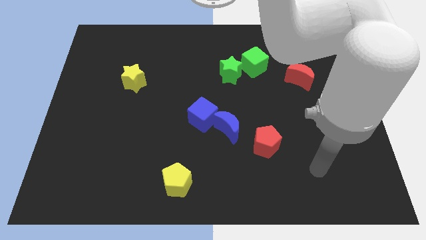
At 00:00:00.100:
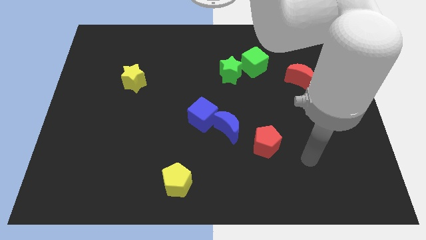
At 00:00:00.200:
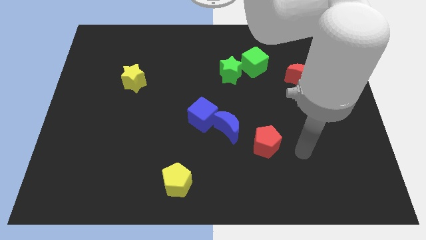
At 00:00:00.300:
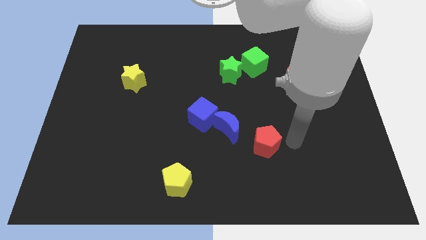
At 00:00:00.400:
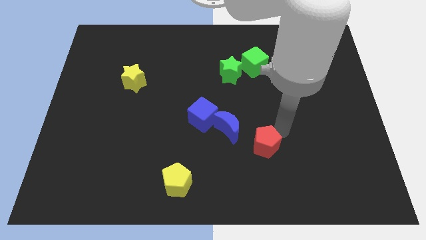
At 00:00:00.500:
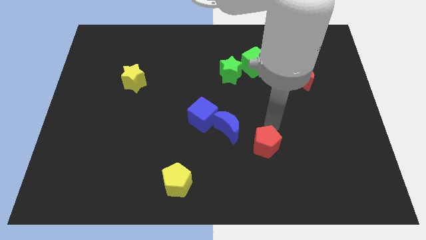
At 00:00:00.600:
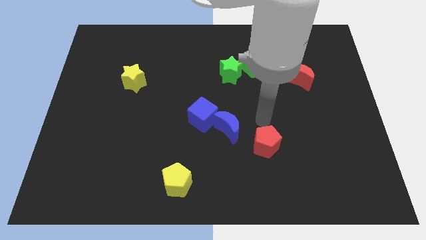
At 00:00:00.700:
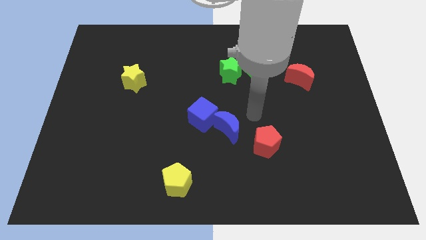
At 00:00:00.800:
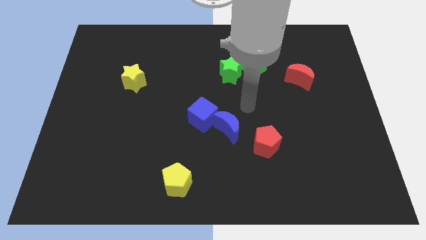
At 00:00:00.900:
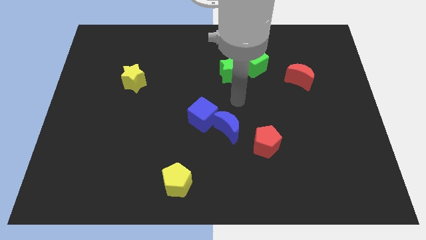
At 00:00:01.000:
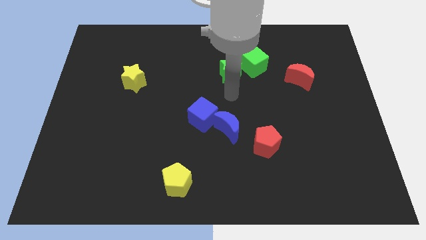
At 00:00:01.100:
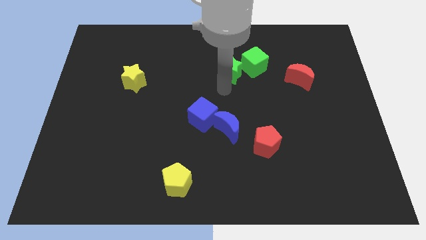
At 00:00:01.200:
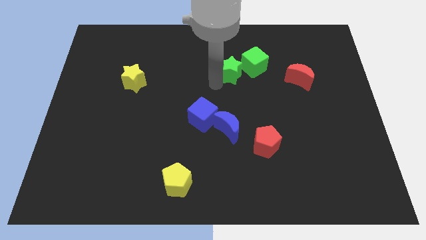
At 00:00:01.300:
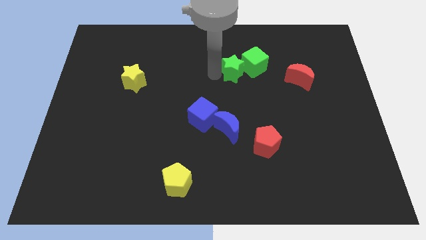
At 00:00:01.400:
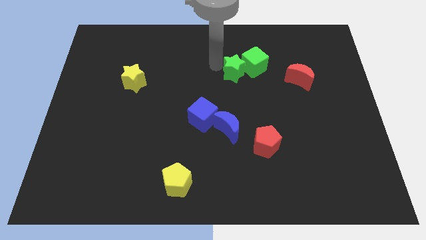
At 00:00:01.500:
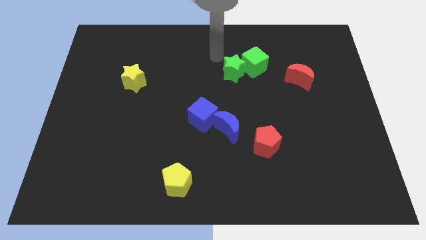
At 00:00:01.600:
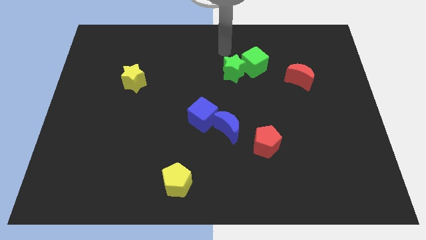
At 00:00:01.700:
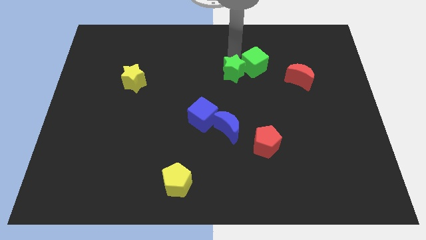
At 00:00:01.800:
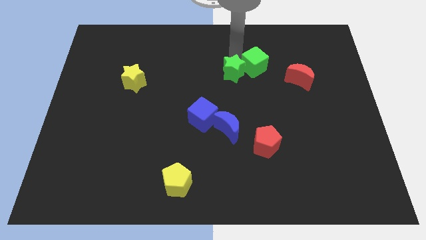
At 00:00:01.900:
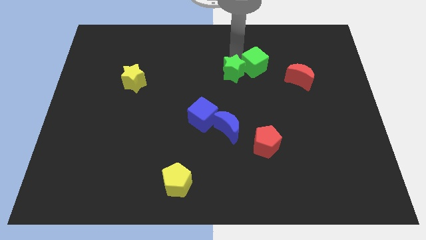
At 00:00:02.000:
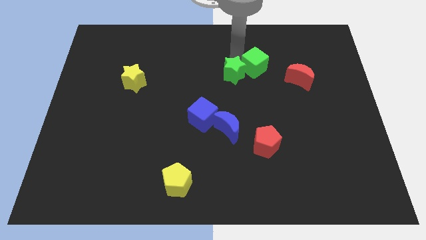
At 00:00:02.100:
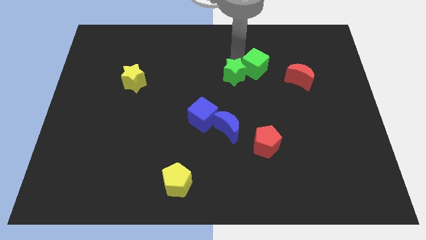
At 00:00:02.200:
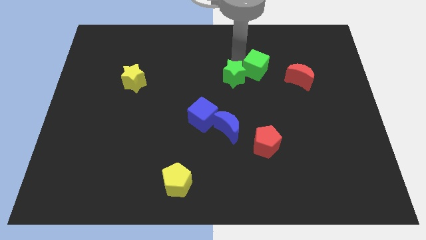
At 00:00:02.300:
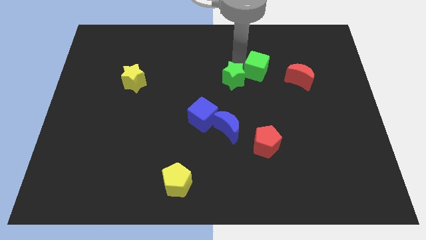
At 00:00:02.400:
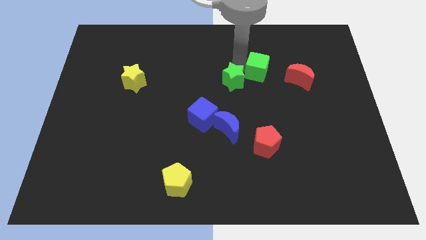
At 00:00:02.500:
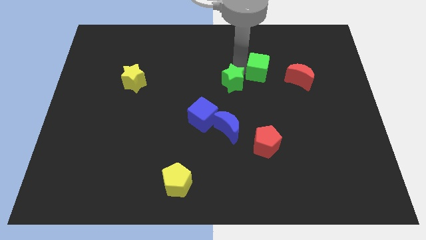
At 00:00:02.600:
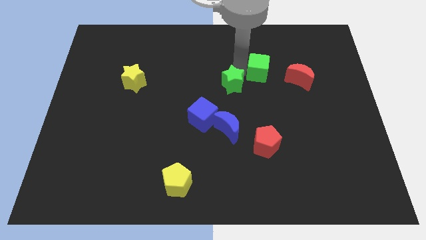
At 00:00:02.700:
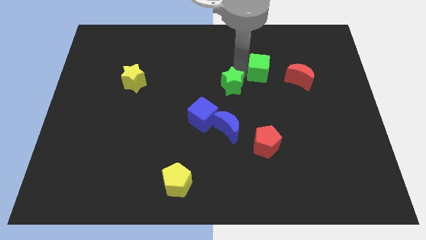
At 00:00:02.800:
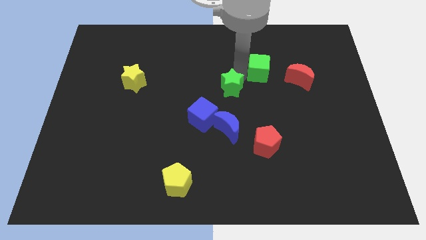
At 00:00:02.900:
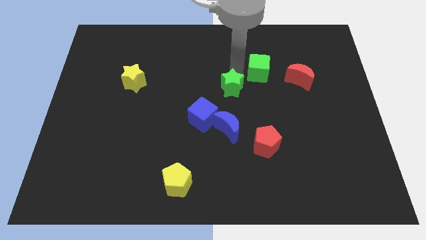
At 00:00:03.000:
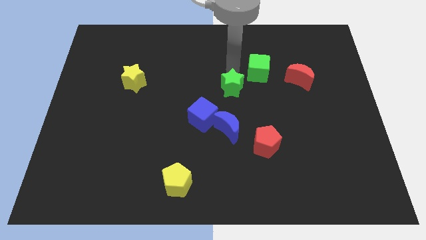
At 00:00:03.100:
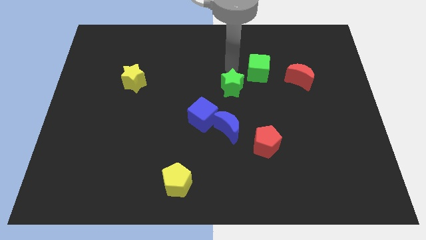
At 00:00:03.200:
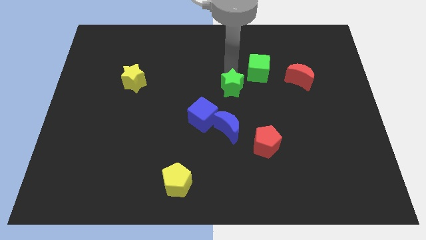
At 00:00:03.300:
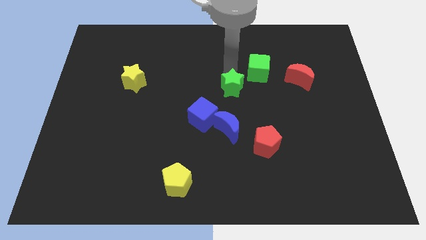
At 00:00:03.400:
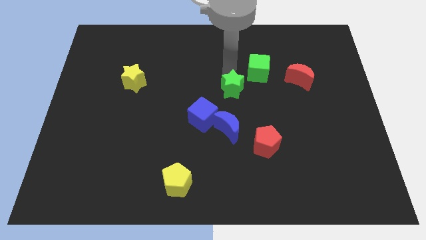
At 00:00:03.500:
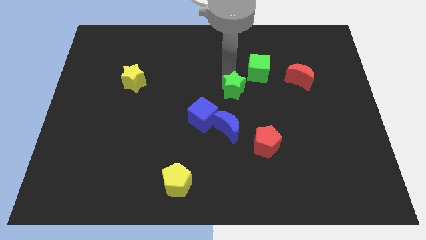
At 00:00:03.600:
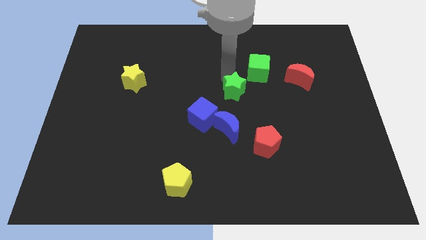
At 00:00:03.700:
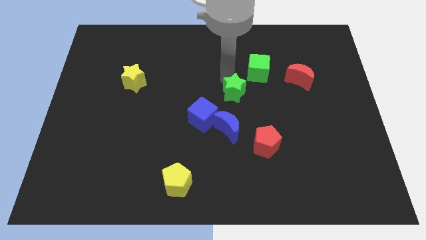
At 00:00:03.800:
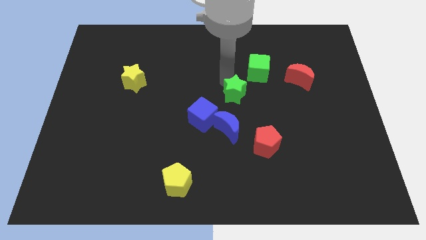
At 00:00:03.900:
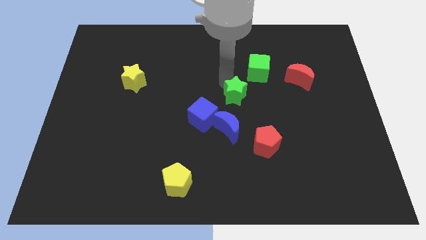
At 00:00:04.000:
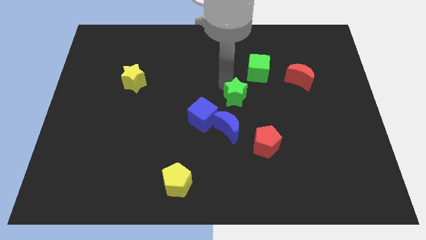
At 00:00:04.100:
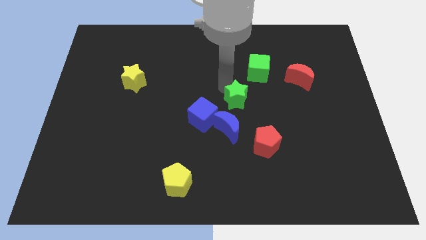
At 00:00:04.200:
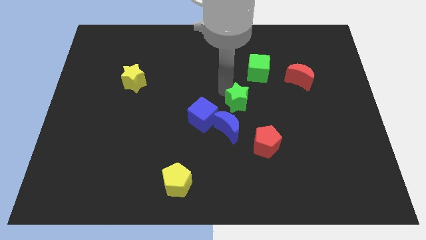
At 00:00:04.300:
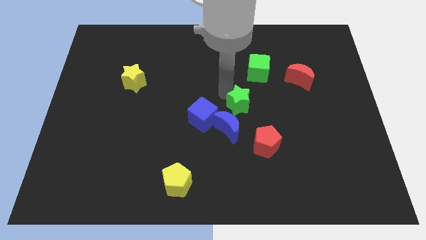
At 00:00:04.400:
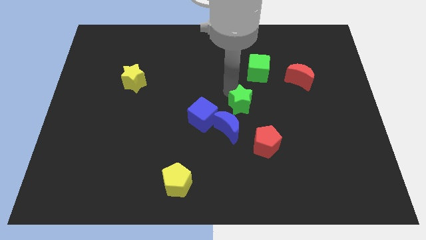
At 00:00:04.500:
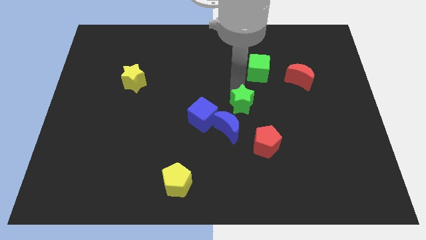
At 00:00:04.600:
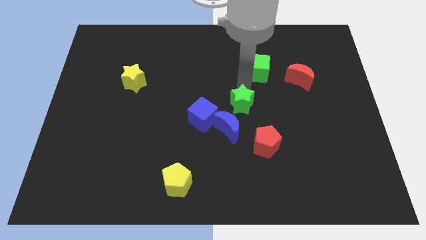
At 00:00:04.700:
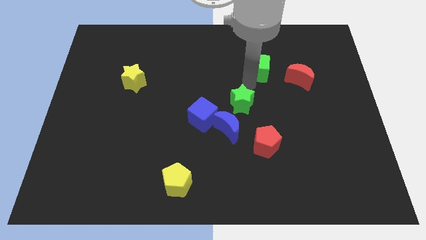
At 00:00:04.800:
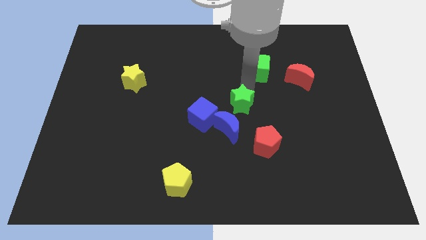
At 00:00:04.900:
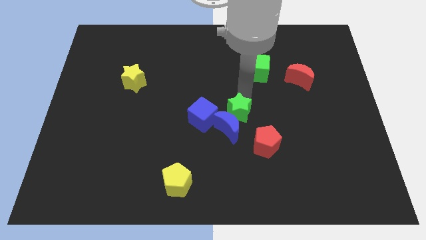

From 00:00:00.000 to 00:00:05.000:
slide the green star towards the blue moon

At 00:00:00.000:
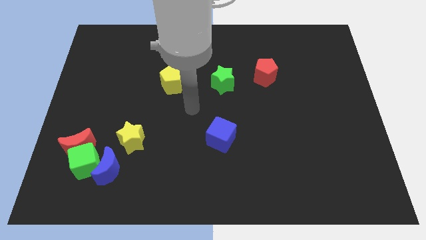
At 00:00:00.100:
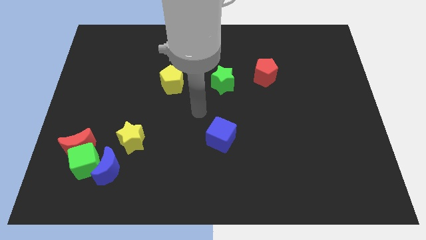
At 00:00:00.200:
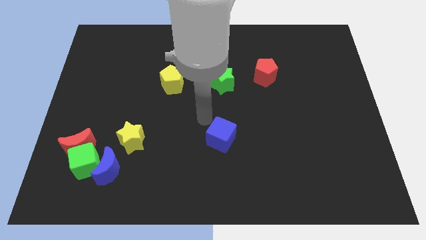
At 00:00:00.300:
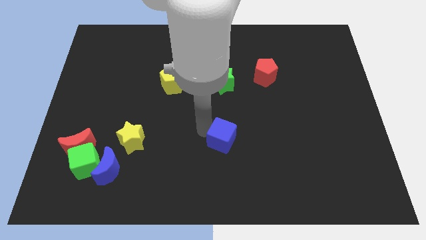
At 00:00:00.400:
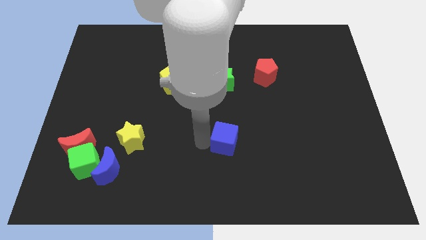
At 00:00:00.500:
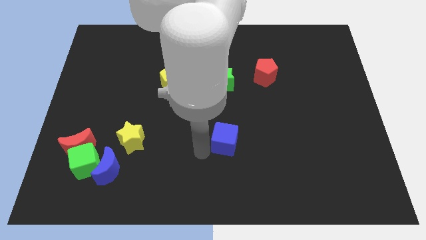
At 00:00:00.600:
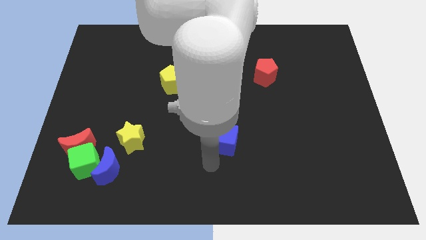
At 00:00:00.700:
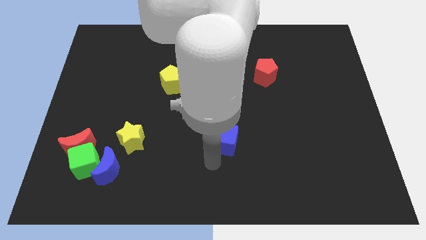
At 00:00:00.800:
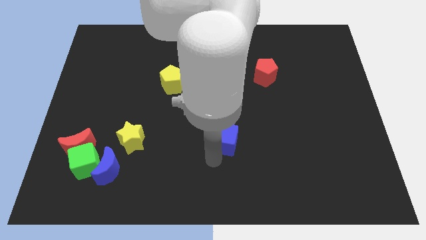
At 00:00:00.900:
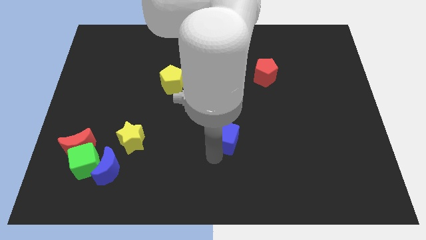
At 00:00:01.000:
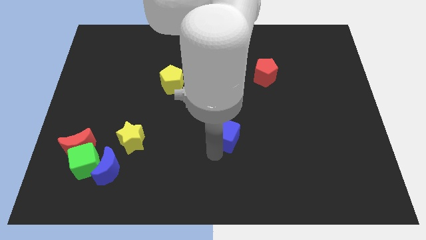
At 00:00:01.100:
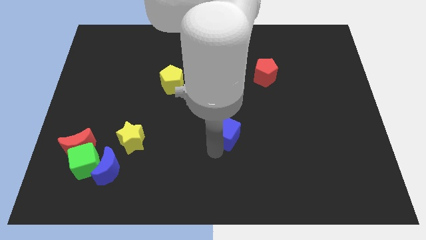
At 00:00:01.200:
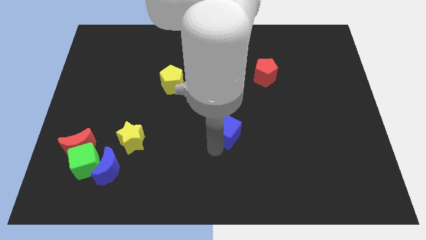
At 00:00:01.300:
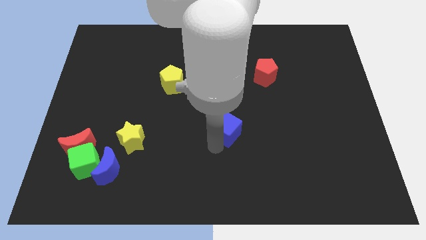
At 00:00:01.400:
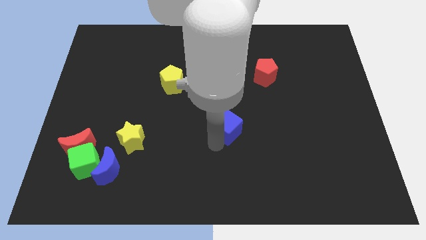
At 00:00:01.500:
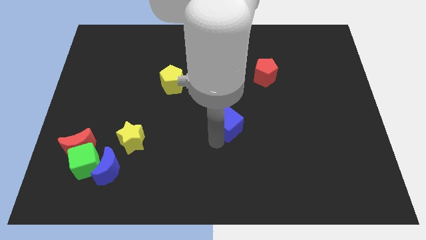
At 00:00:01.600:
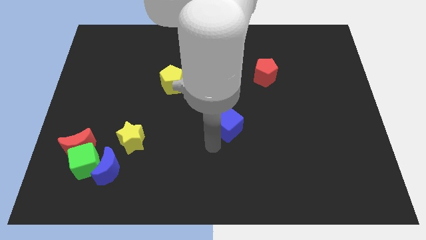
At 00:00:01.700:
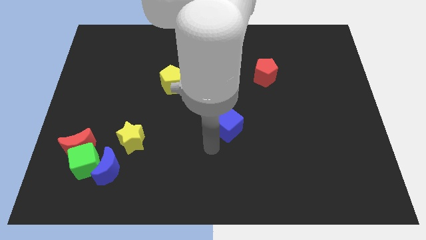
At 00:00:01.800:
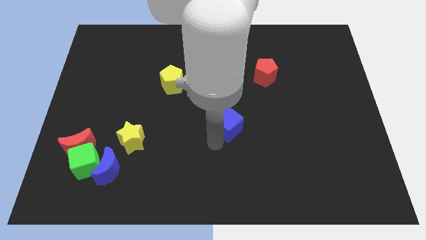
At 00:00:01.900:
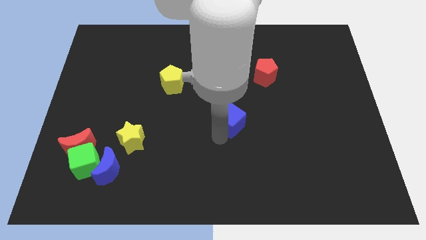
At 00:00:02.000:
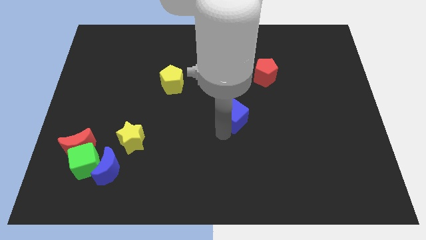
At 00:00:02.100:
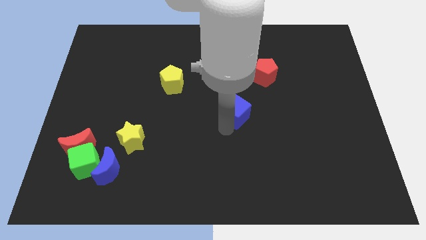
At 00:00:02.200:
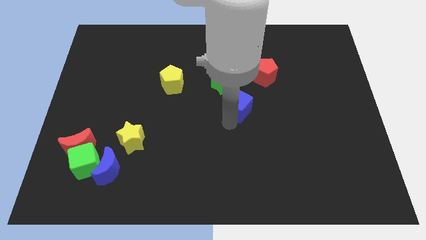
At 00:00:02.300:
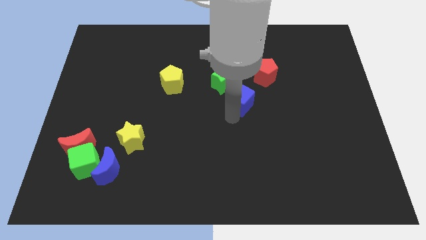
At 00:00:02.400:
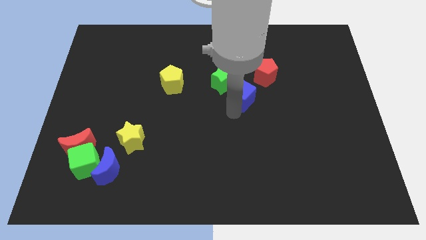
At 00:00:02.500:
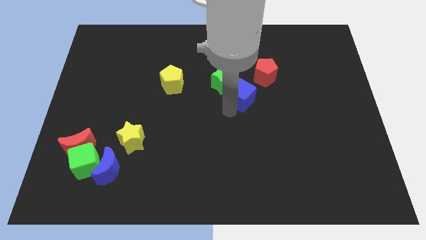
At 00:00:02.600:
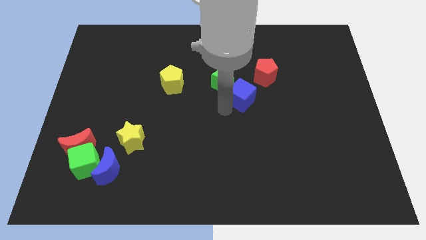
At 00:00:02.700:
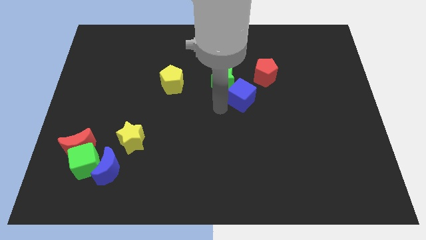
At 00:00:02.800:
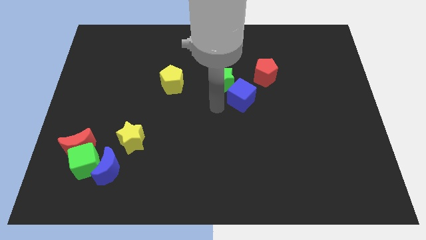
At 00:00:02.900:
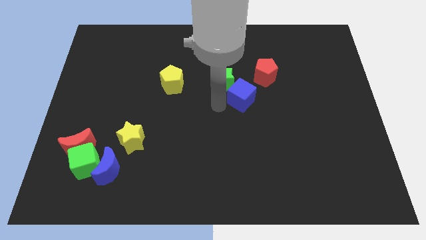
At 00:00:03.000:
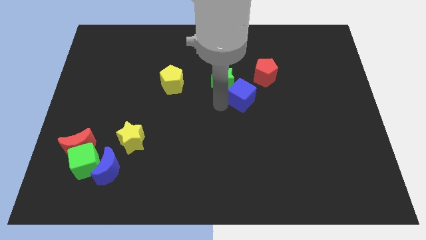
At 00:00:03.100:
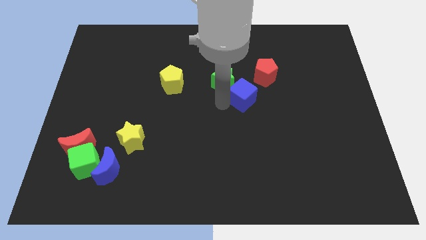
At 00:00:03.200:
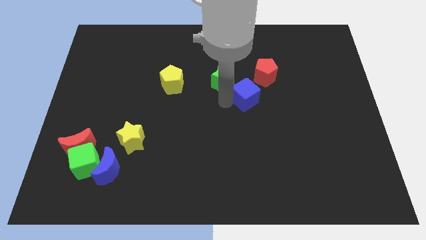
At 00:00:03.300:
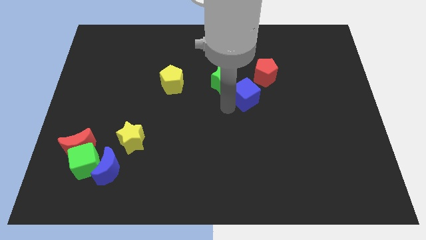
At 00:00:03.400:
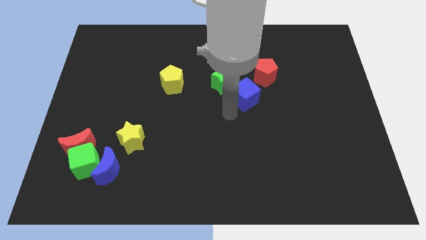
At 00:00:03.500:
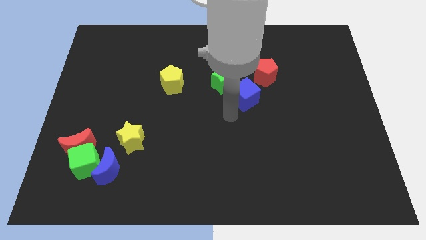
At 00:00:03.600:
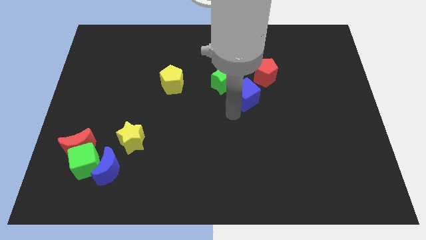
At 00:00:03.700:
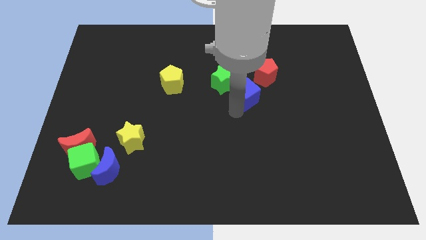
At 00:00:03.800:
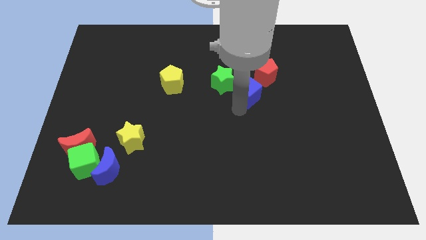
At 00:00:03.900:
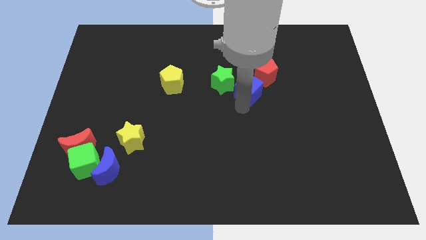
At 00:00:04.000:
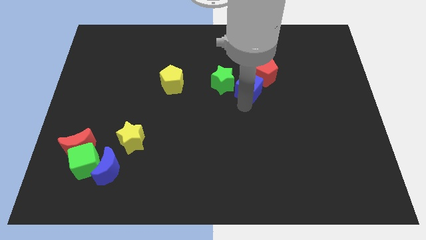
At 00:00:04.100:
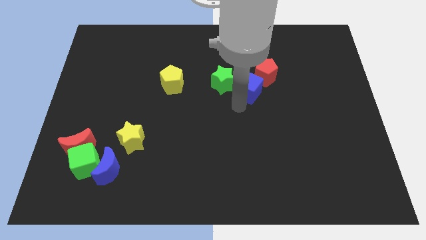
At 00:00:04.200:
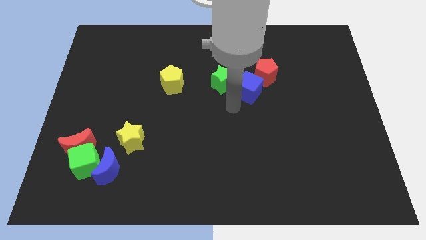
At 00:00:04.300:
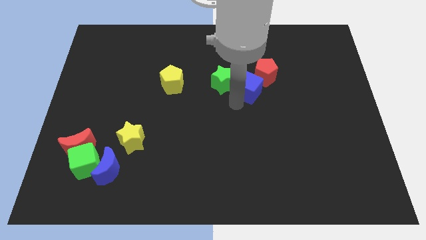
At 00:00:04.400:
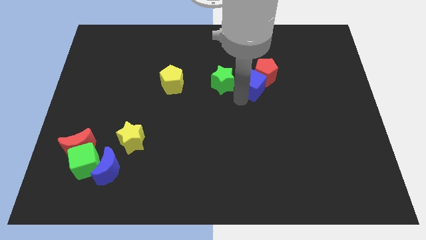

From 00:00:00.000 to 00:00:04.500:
put the blue cube close to the red pentagon
